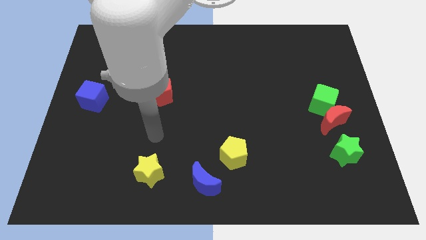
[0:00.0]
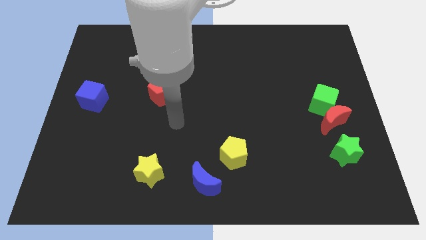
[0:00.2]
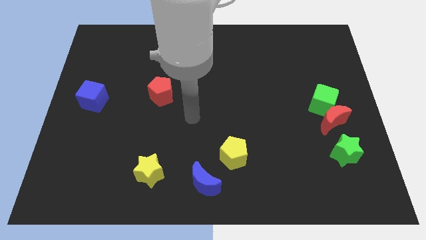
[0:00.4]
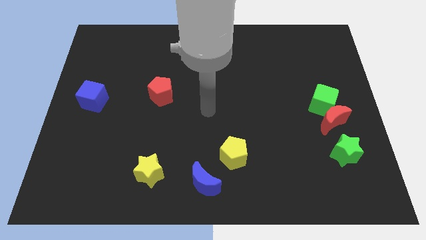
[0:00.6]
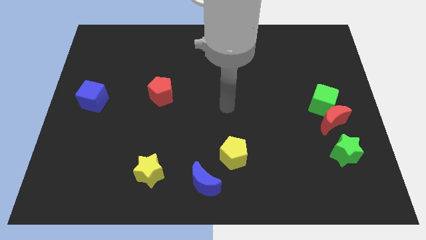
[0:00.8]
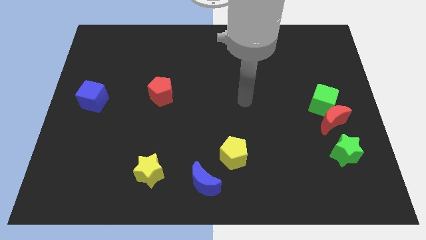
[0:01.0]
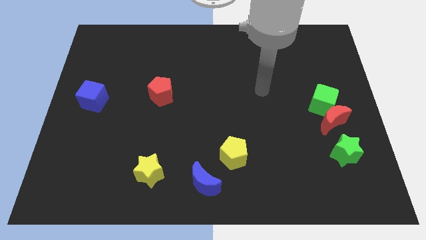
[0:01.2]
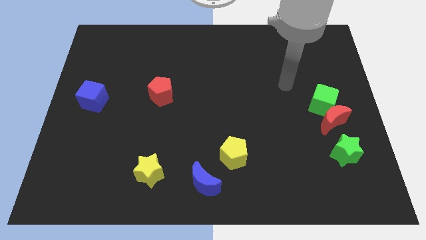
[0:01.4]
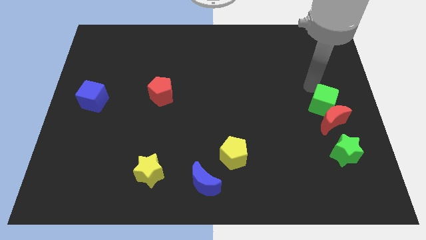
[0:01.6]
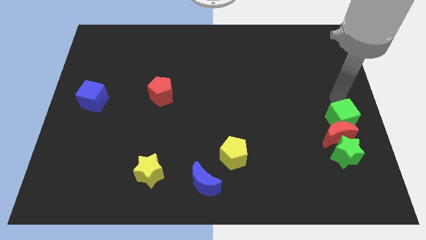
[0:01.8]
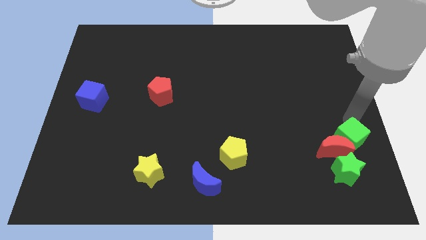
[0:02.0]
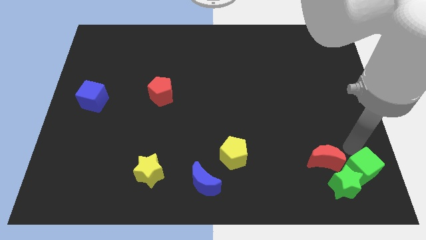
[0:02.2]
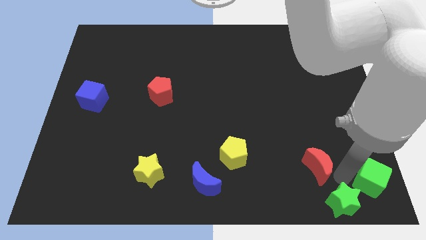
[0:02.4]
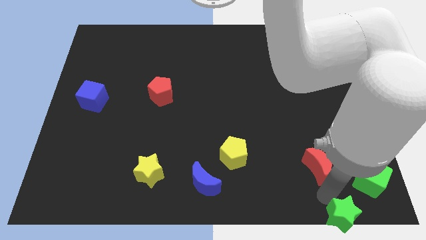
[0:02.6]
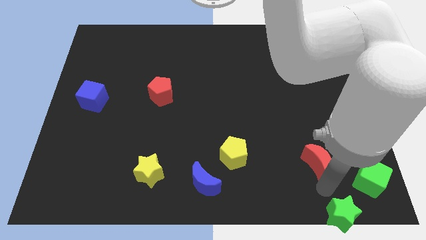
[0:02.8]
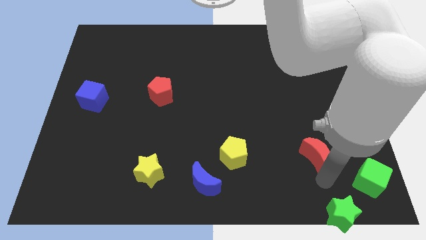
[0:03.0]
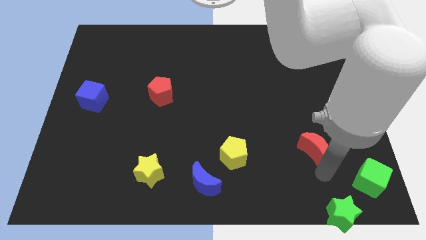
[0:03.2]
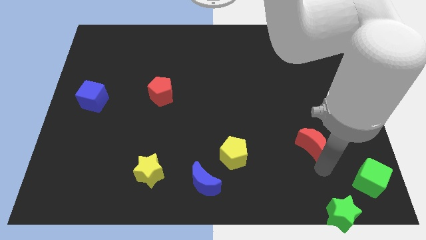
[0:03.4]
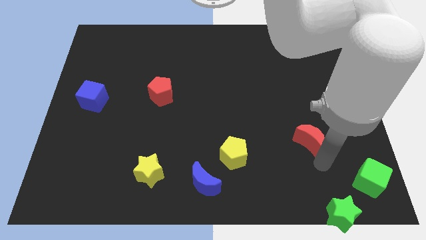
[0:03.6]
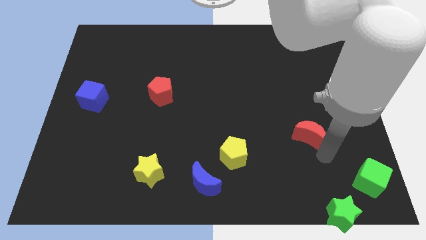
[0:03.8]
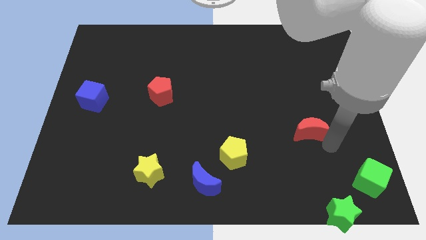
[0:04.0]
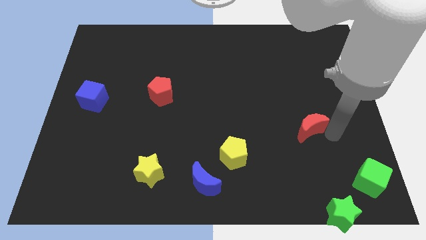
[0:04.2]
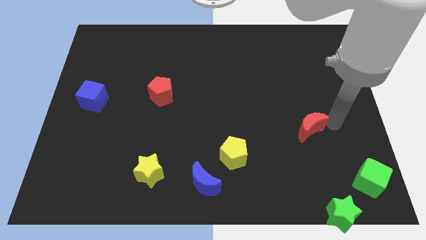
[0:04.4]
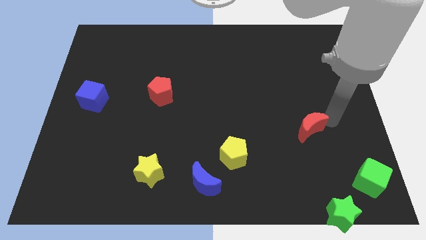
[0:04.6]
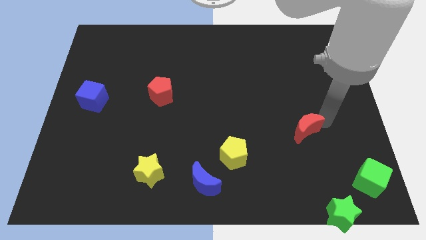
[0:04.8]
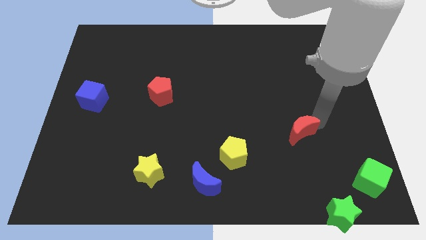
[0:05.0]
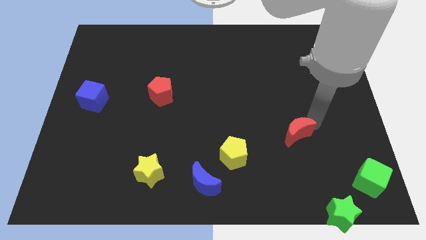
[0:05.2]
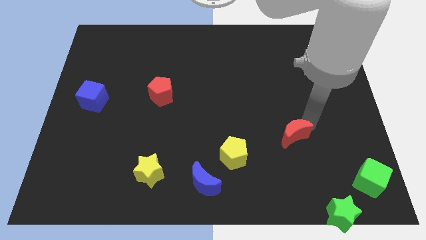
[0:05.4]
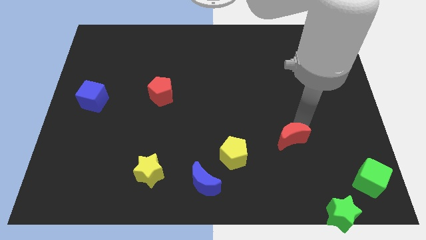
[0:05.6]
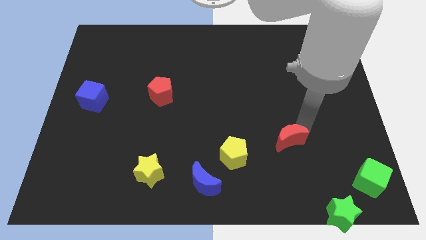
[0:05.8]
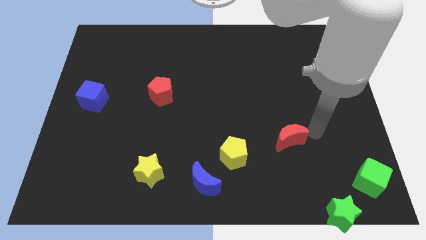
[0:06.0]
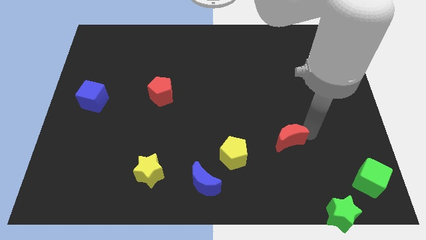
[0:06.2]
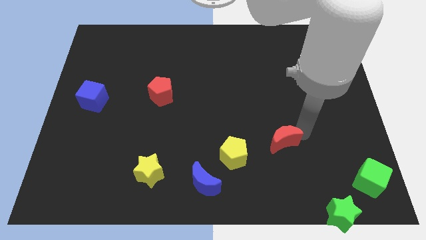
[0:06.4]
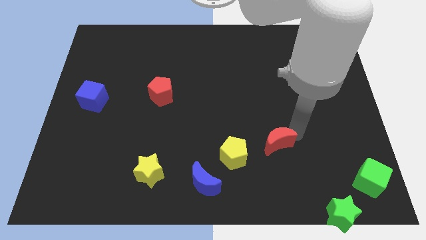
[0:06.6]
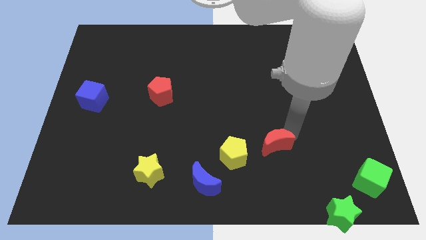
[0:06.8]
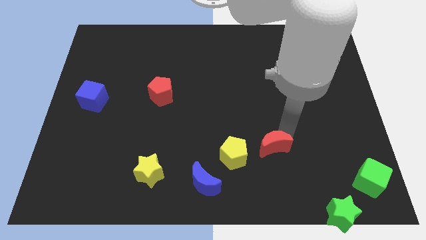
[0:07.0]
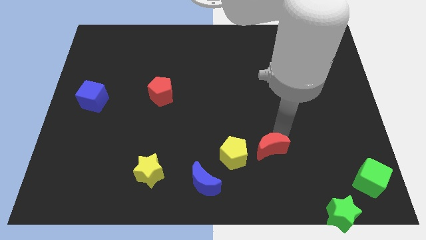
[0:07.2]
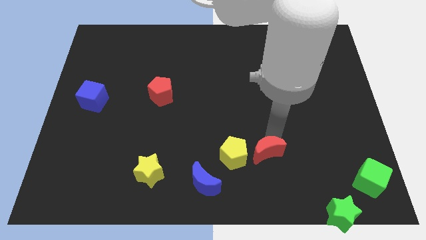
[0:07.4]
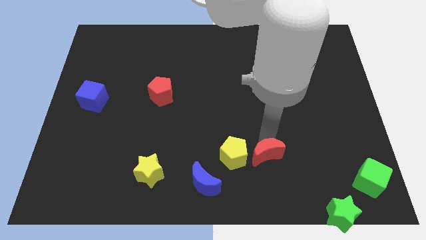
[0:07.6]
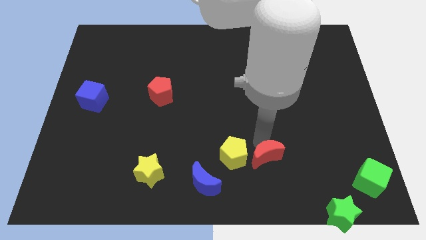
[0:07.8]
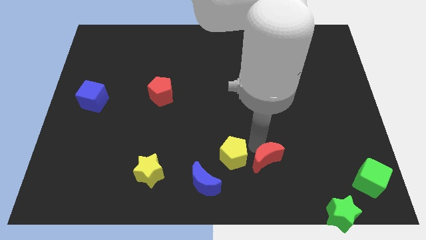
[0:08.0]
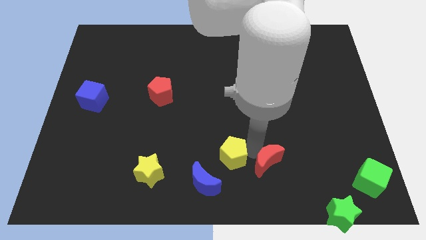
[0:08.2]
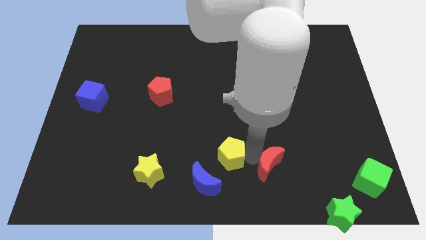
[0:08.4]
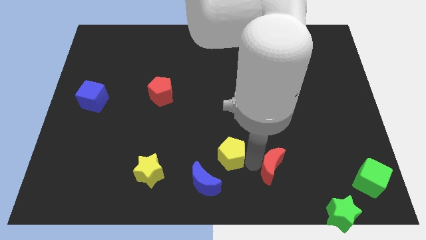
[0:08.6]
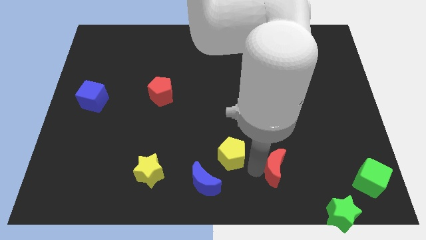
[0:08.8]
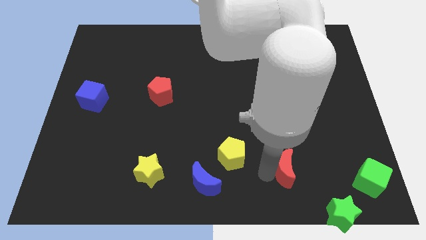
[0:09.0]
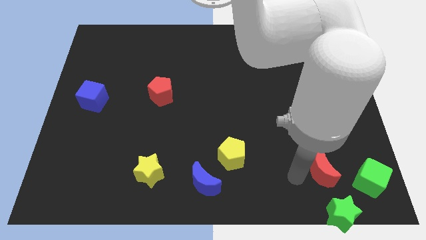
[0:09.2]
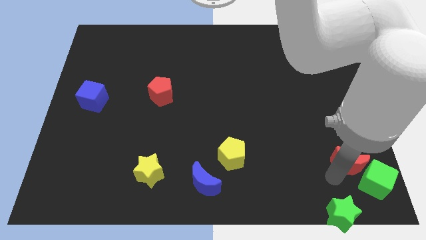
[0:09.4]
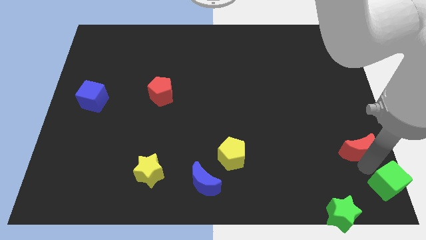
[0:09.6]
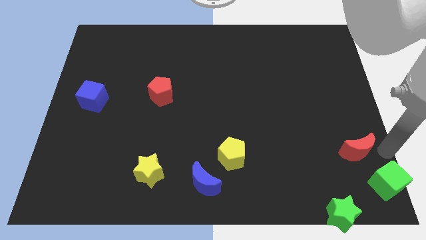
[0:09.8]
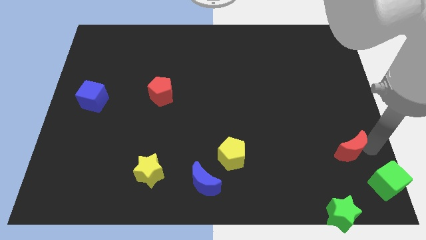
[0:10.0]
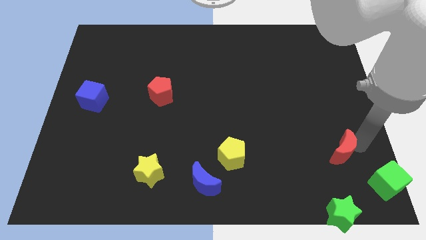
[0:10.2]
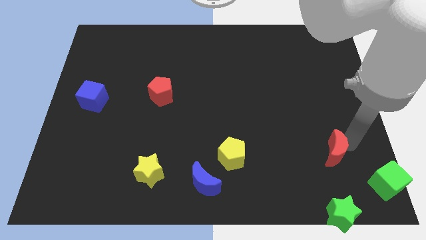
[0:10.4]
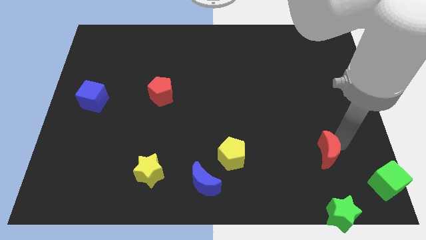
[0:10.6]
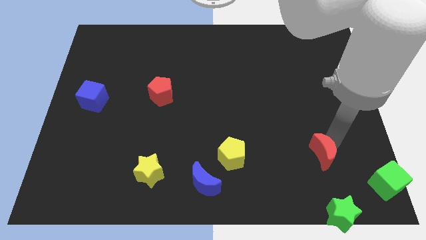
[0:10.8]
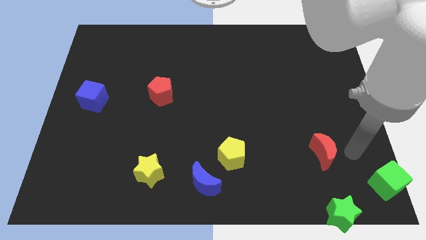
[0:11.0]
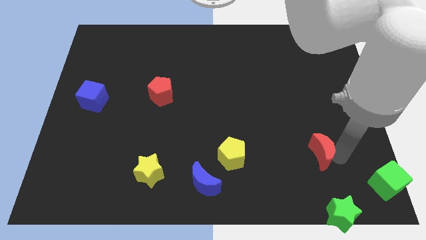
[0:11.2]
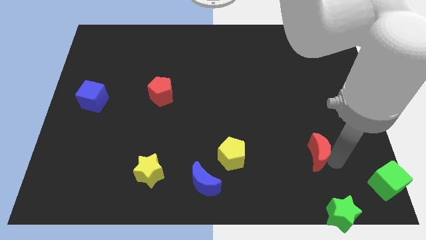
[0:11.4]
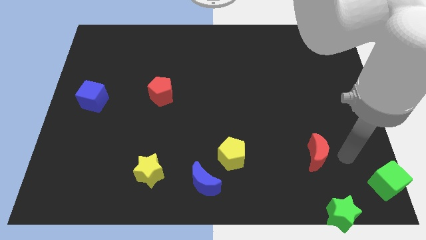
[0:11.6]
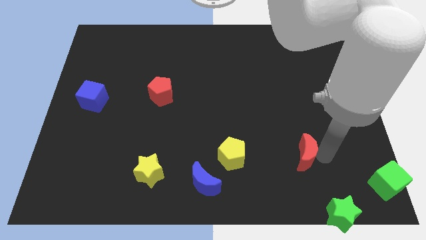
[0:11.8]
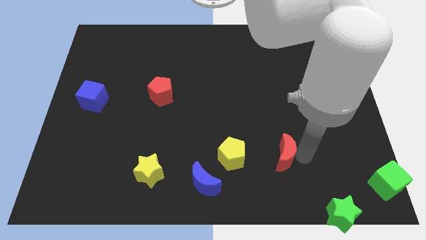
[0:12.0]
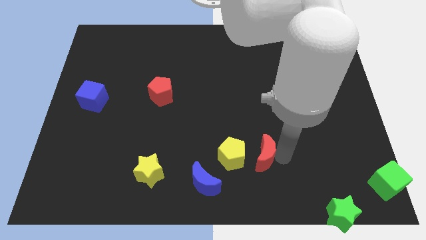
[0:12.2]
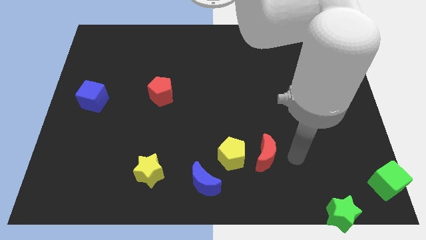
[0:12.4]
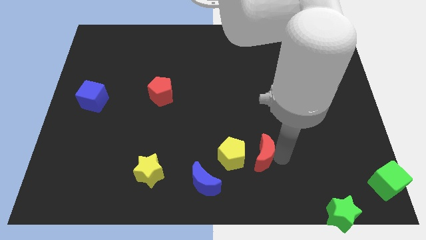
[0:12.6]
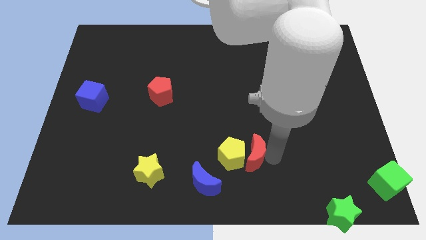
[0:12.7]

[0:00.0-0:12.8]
slide the red moon to the yellow pentagon

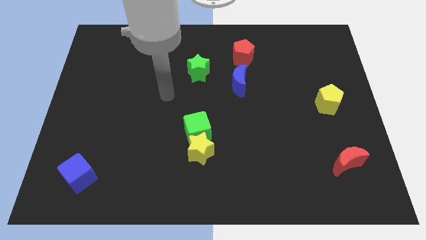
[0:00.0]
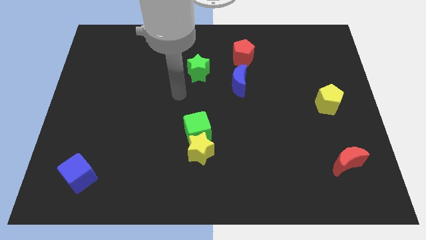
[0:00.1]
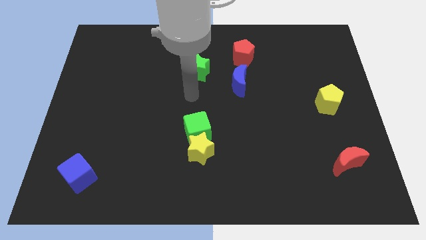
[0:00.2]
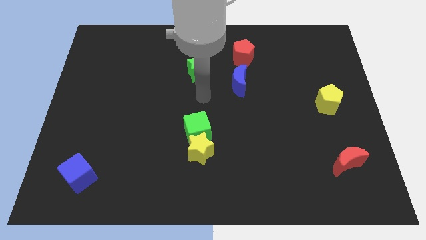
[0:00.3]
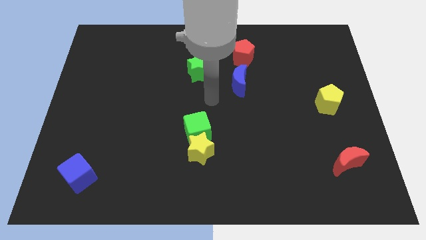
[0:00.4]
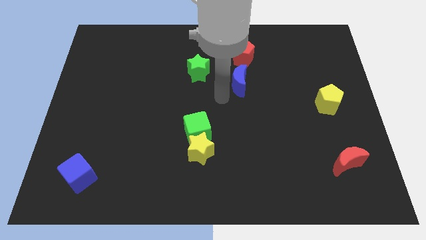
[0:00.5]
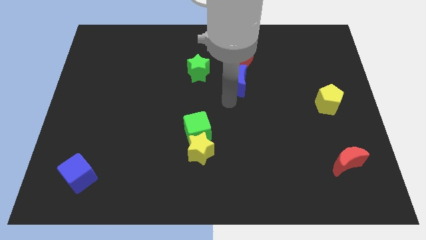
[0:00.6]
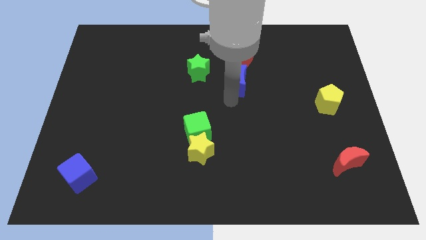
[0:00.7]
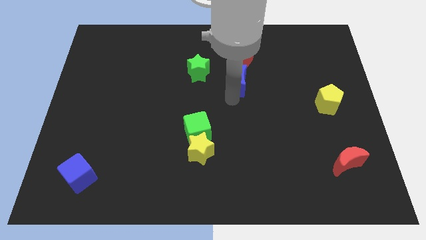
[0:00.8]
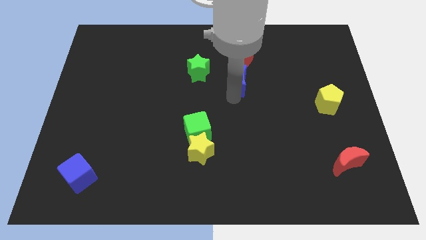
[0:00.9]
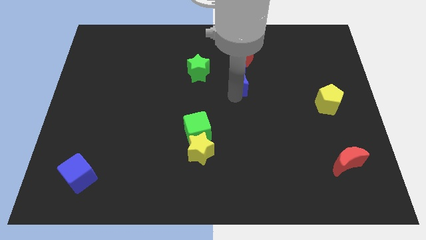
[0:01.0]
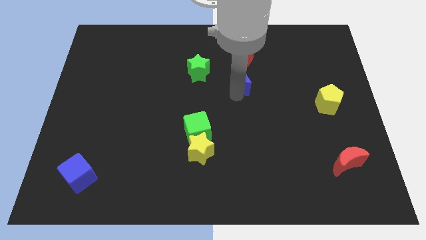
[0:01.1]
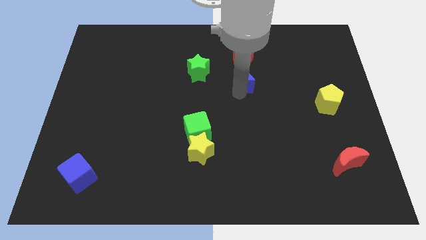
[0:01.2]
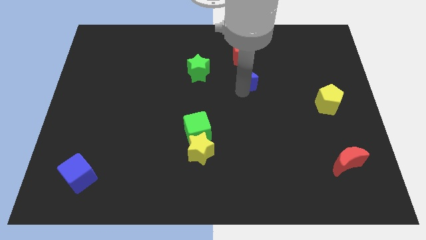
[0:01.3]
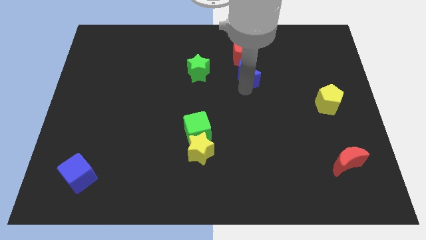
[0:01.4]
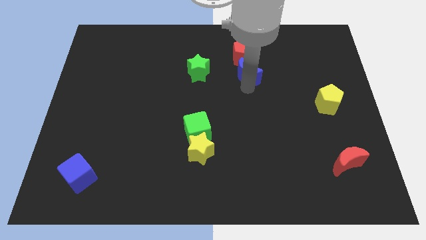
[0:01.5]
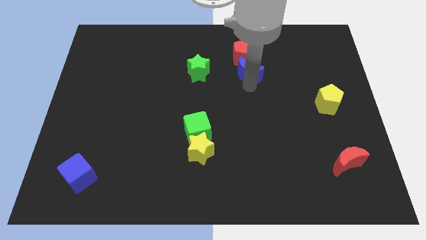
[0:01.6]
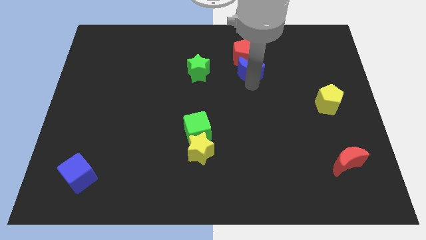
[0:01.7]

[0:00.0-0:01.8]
put the blue moon close to the red pentagon
